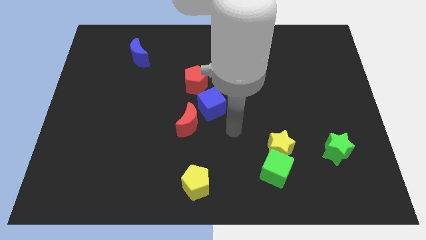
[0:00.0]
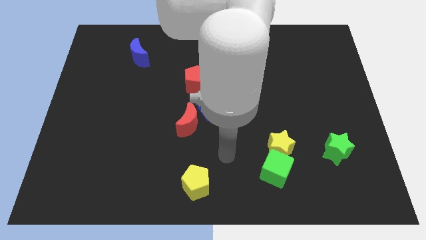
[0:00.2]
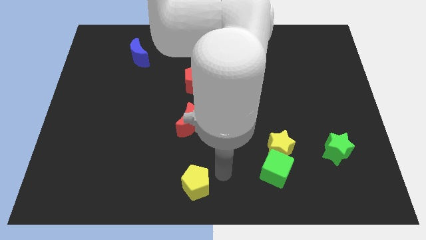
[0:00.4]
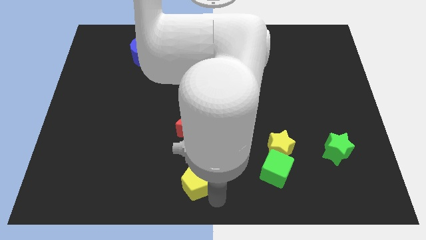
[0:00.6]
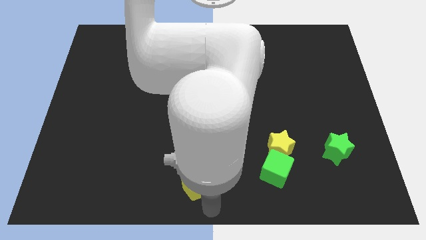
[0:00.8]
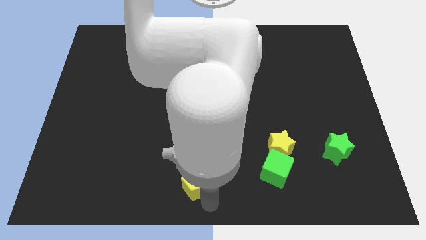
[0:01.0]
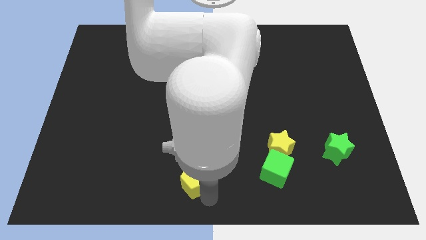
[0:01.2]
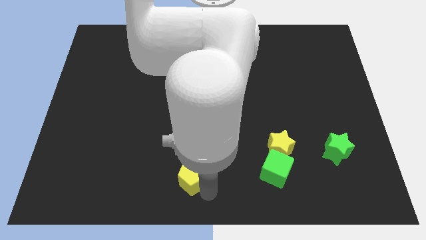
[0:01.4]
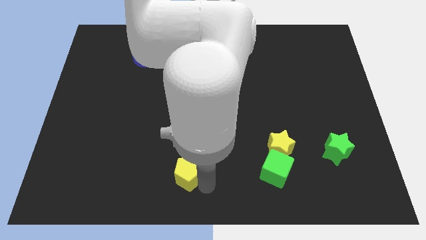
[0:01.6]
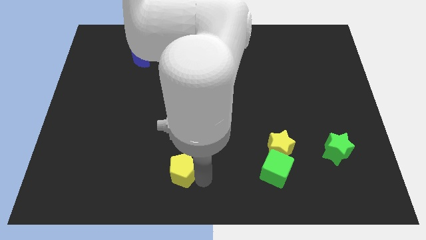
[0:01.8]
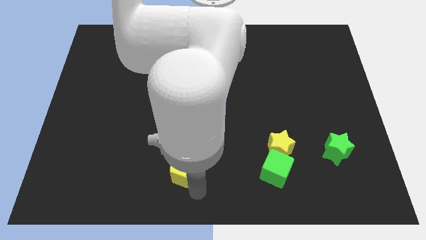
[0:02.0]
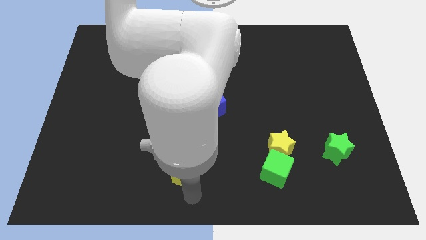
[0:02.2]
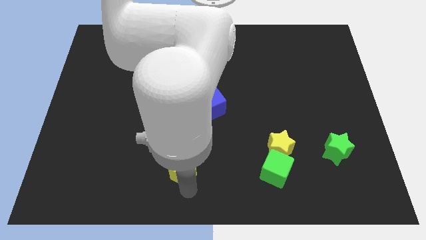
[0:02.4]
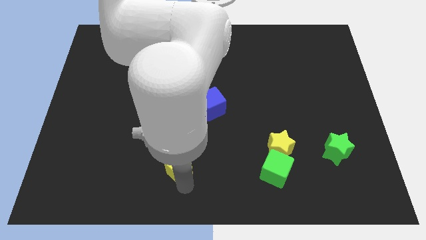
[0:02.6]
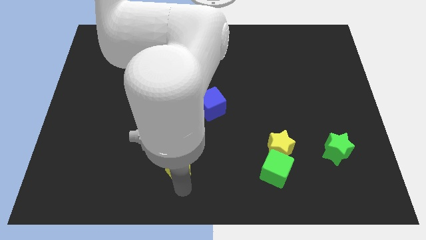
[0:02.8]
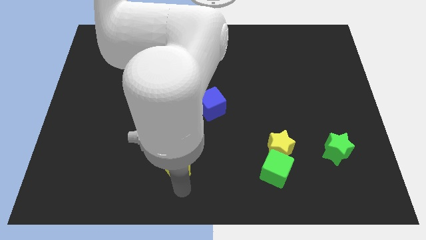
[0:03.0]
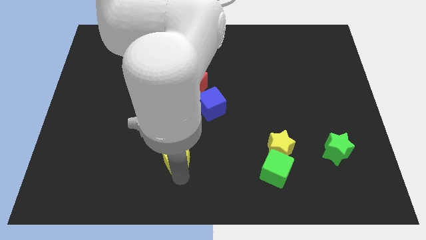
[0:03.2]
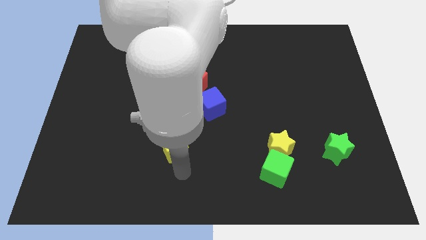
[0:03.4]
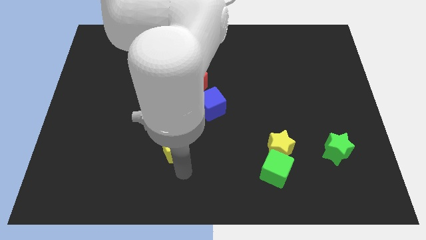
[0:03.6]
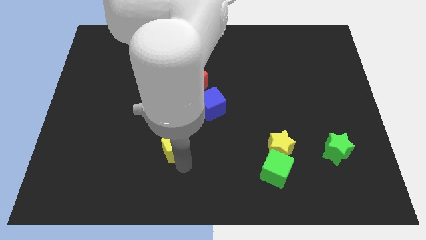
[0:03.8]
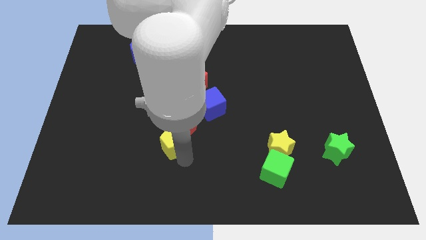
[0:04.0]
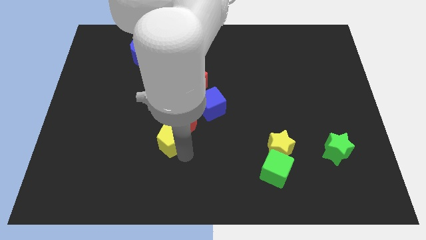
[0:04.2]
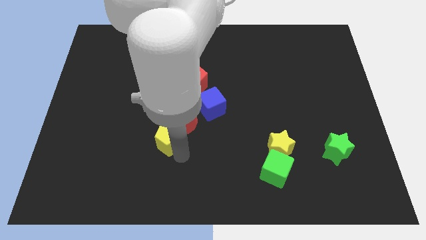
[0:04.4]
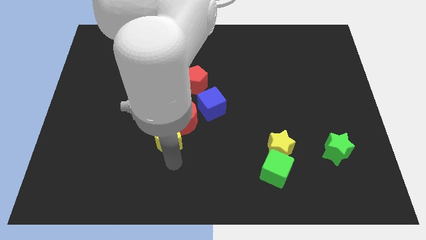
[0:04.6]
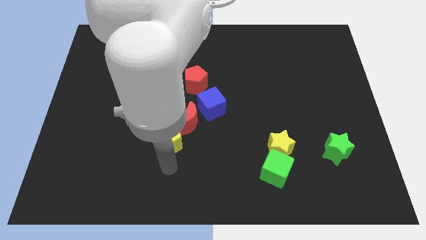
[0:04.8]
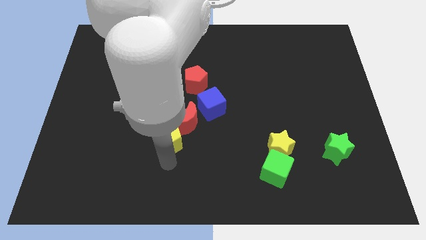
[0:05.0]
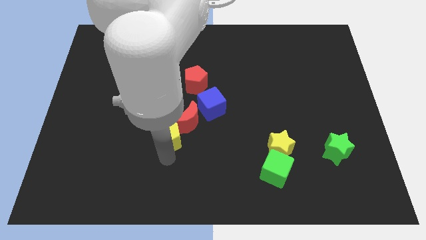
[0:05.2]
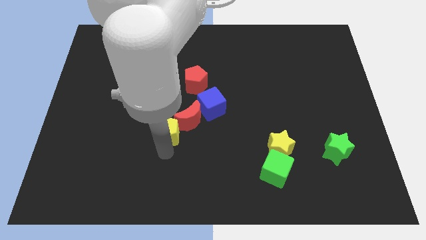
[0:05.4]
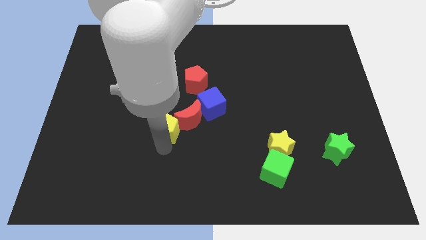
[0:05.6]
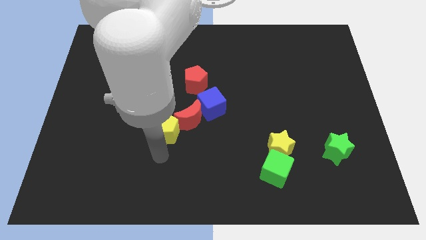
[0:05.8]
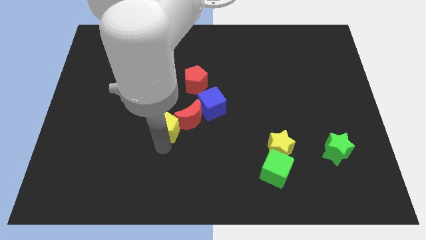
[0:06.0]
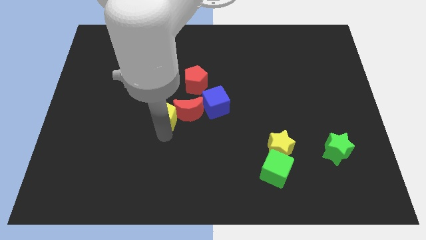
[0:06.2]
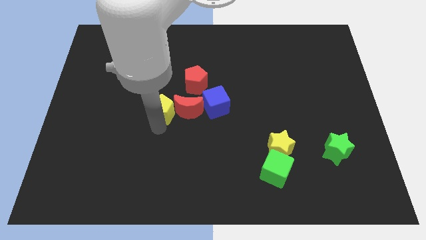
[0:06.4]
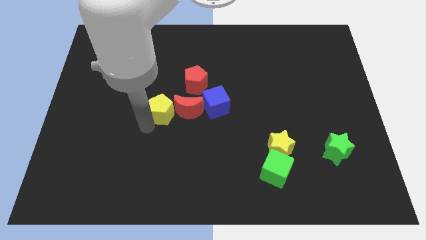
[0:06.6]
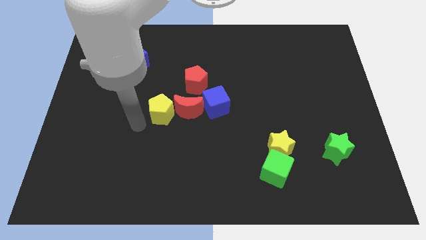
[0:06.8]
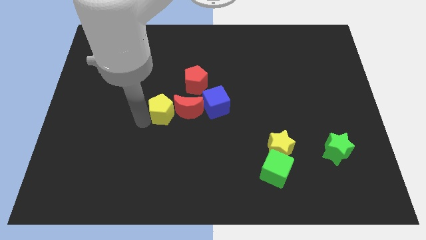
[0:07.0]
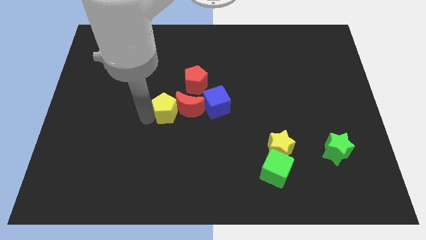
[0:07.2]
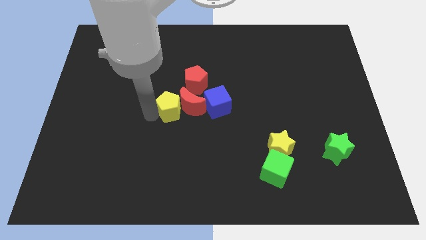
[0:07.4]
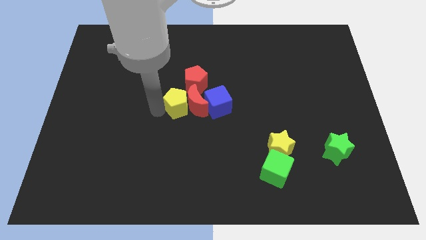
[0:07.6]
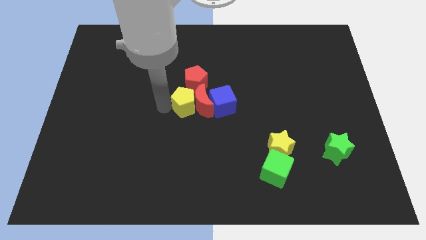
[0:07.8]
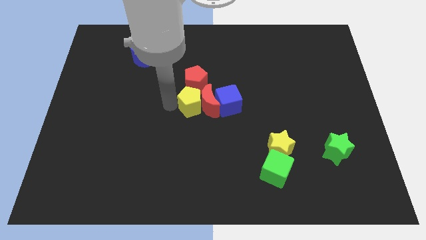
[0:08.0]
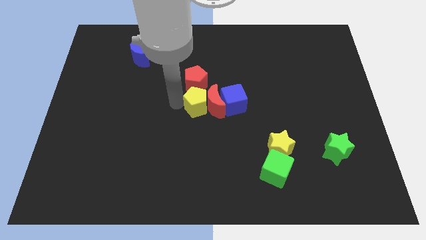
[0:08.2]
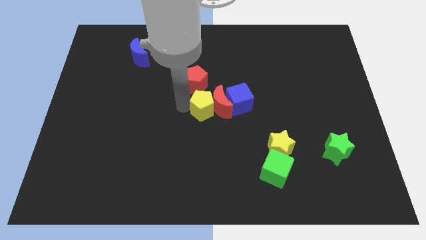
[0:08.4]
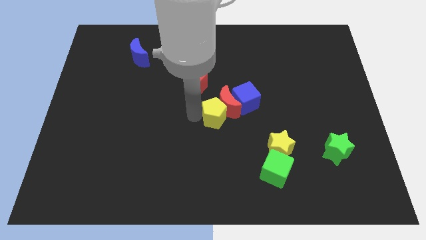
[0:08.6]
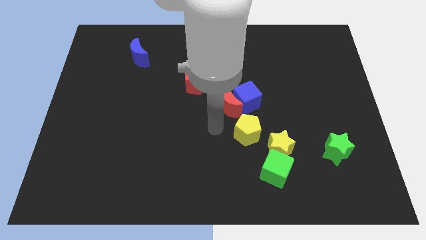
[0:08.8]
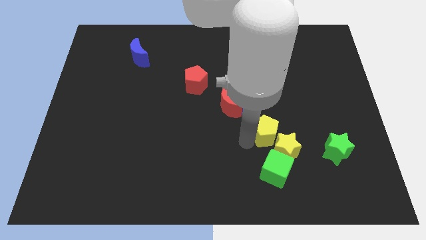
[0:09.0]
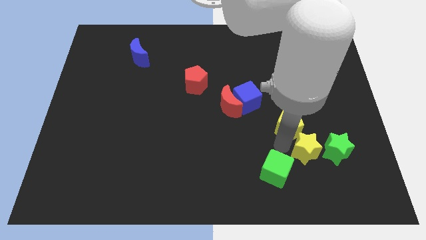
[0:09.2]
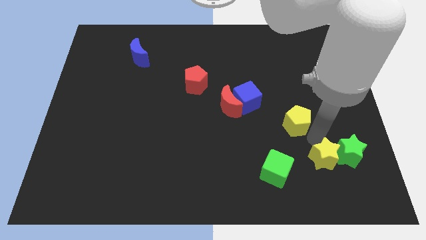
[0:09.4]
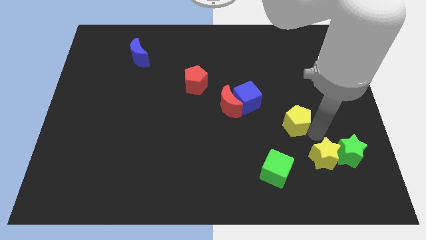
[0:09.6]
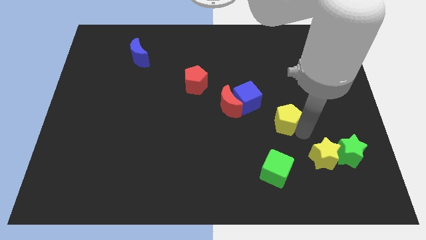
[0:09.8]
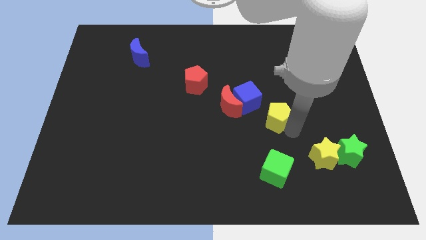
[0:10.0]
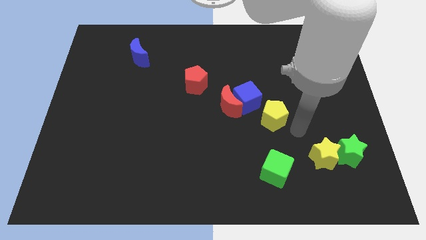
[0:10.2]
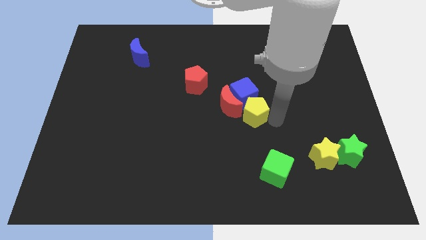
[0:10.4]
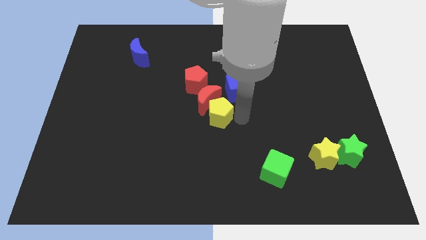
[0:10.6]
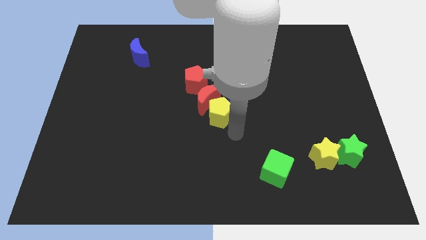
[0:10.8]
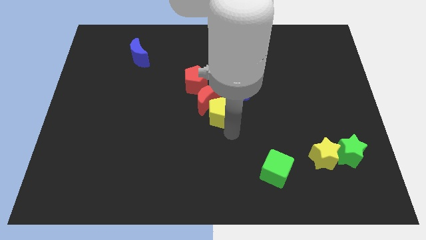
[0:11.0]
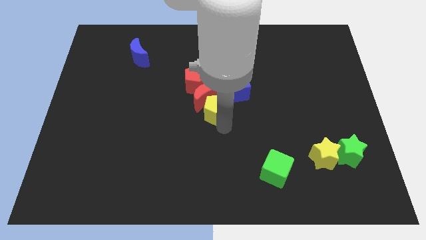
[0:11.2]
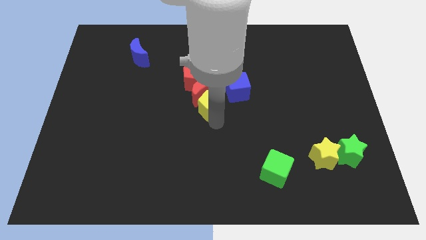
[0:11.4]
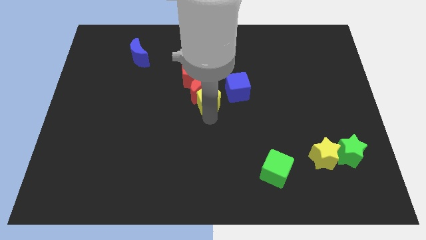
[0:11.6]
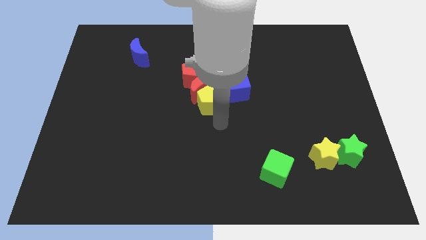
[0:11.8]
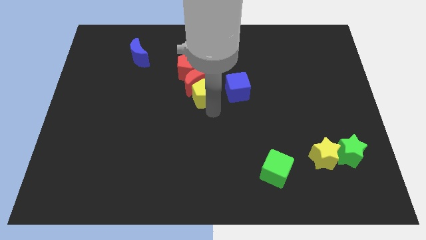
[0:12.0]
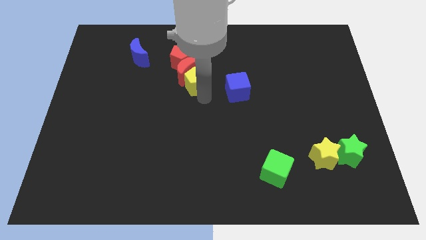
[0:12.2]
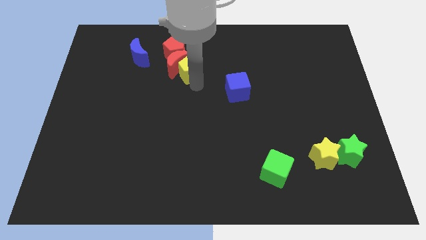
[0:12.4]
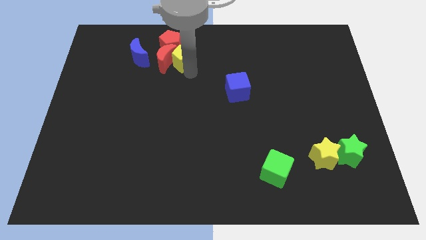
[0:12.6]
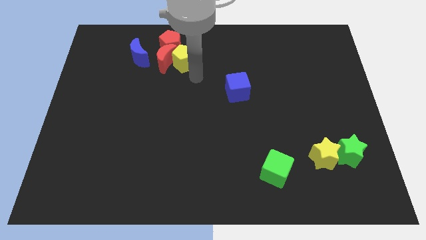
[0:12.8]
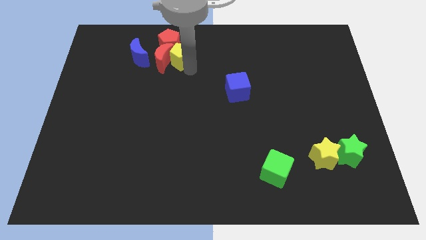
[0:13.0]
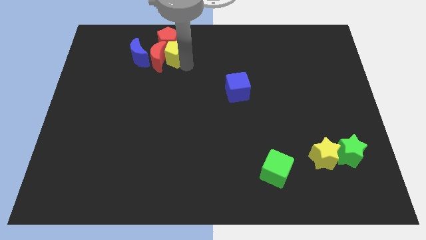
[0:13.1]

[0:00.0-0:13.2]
slide the yellow pentagon next to the red pentagon
